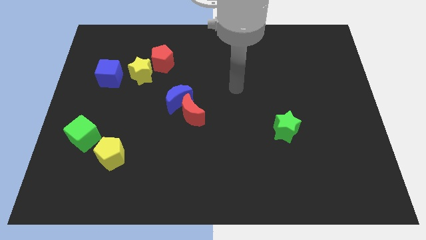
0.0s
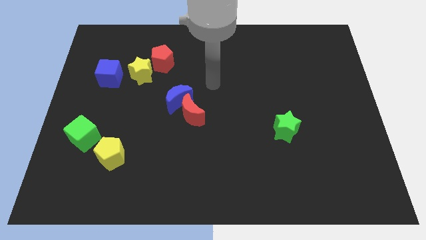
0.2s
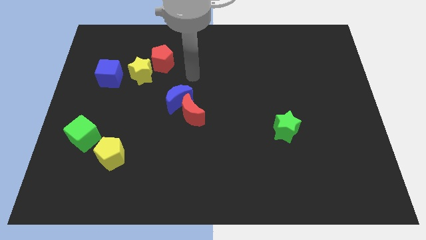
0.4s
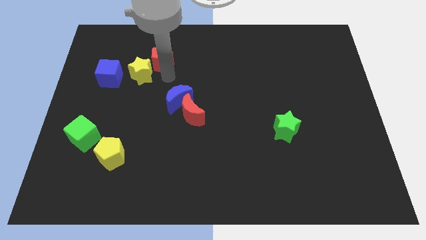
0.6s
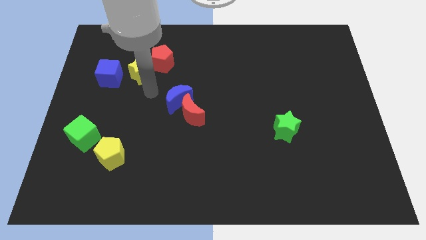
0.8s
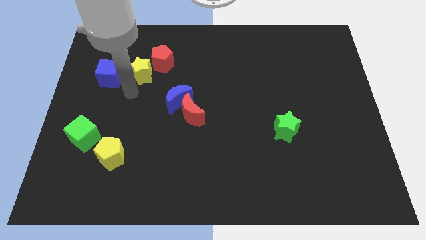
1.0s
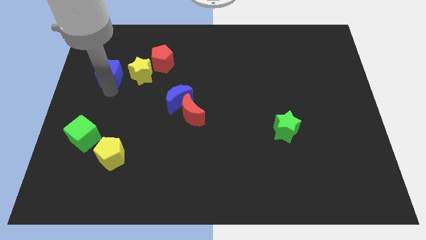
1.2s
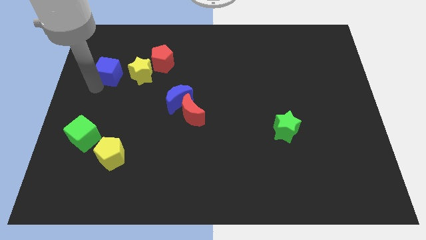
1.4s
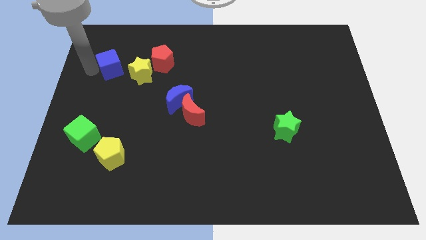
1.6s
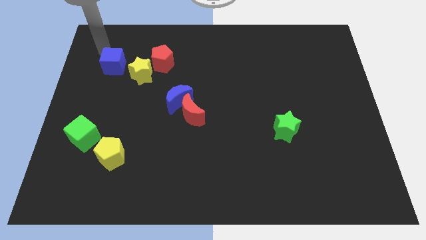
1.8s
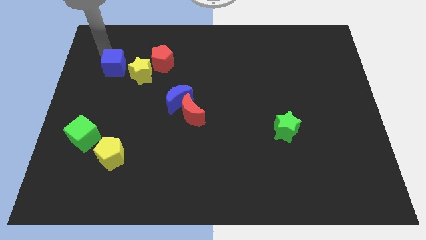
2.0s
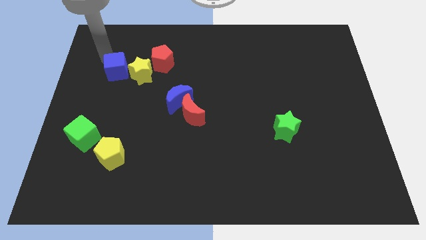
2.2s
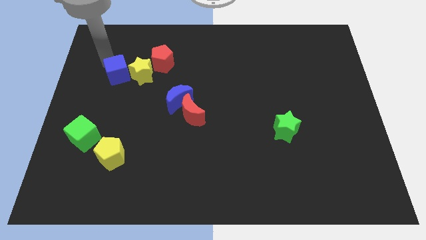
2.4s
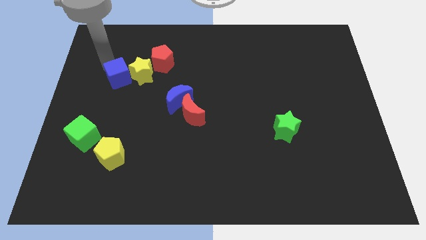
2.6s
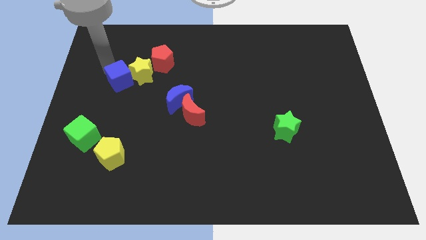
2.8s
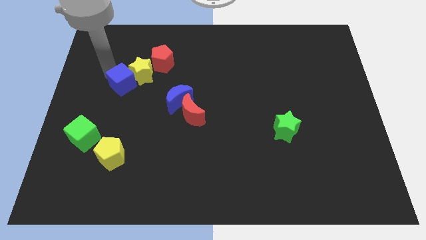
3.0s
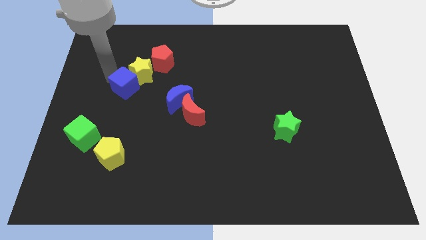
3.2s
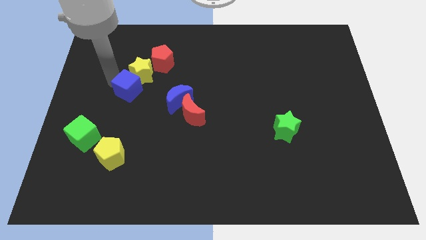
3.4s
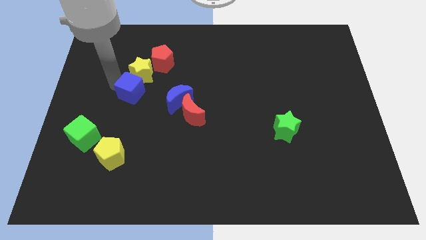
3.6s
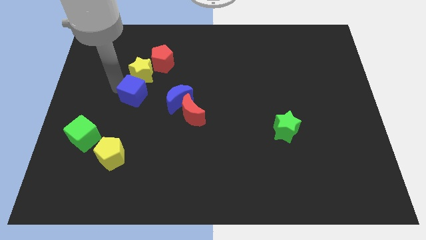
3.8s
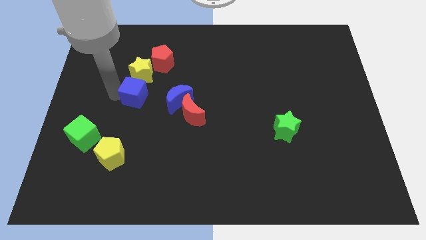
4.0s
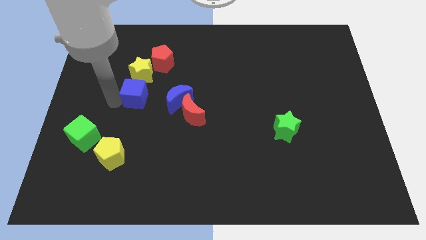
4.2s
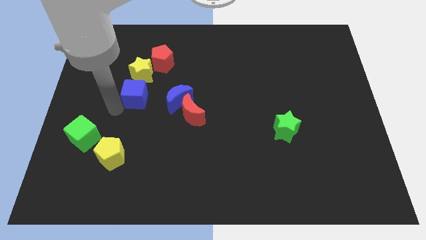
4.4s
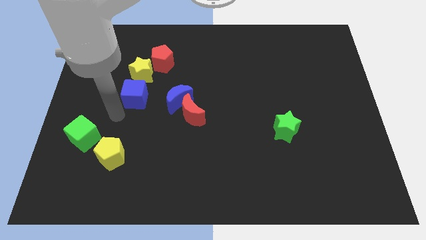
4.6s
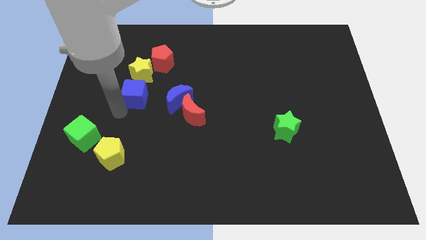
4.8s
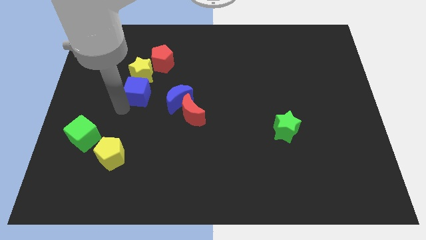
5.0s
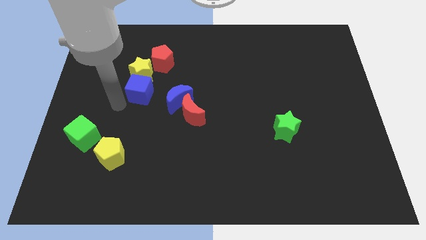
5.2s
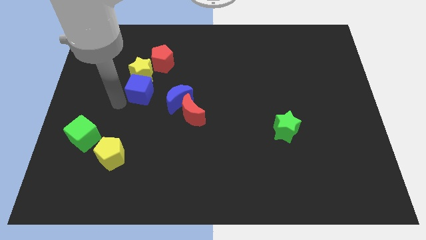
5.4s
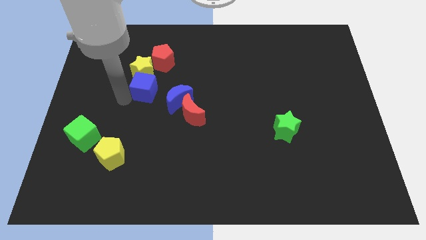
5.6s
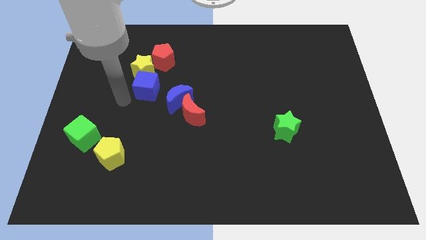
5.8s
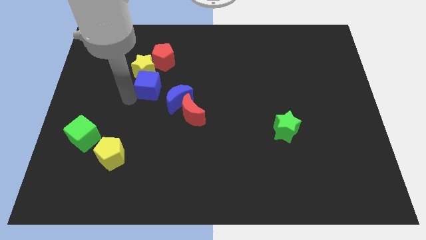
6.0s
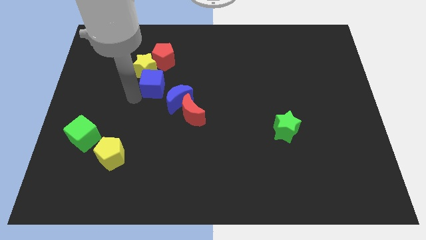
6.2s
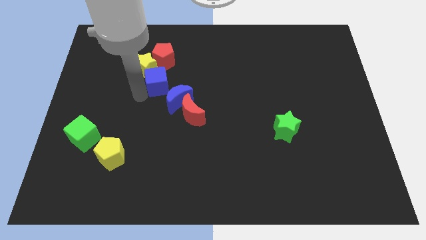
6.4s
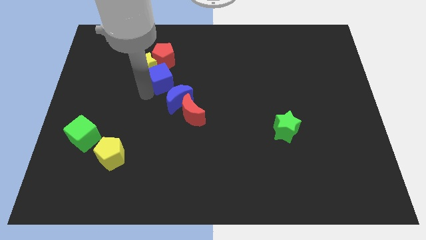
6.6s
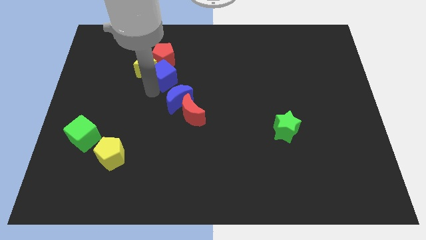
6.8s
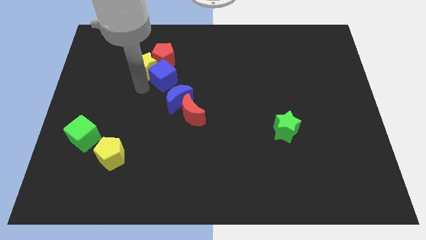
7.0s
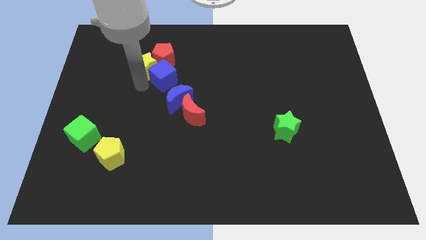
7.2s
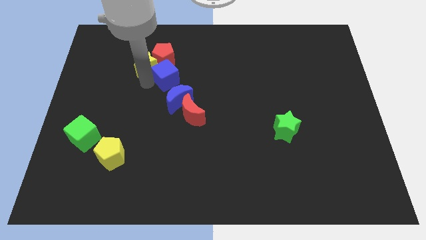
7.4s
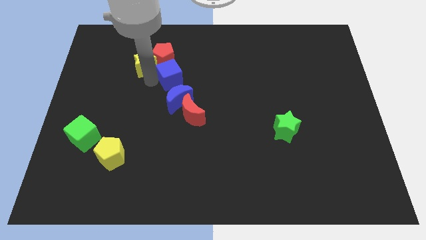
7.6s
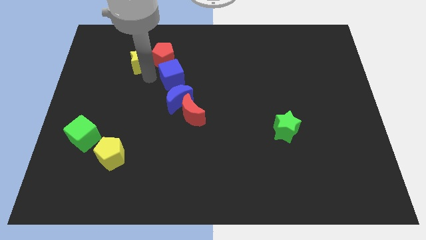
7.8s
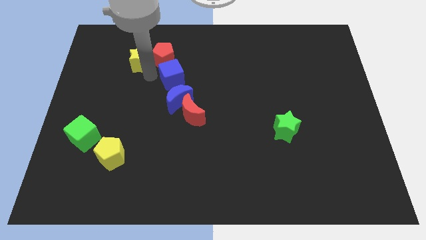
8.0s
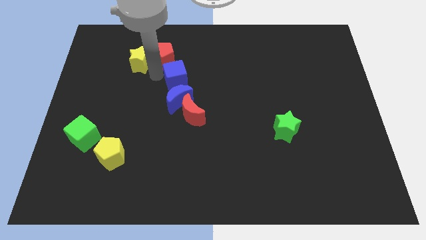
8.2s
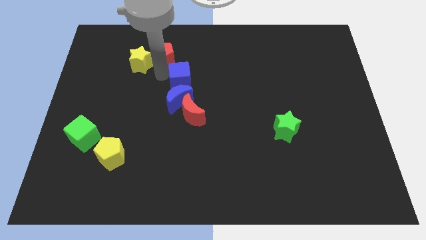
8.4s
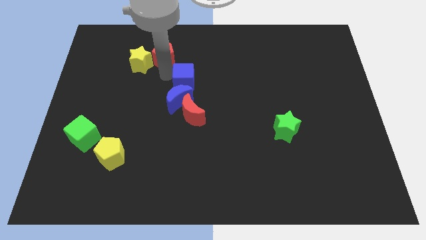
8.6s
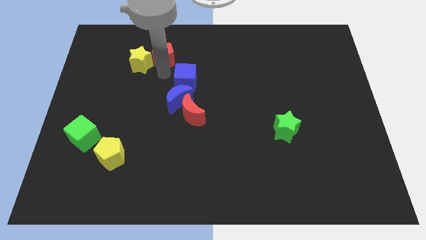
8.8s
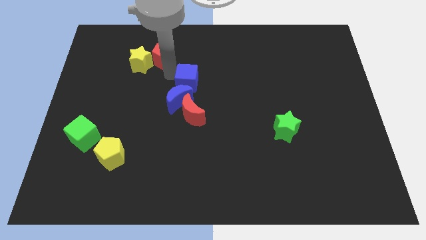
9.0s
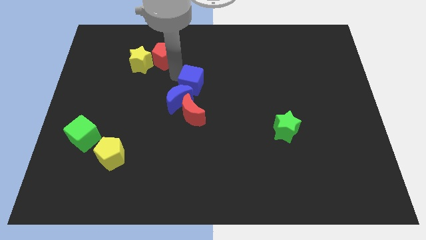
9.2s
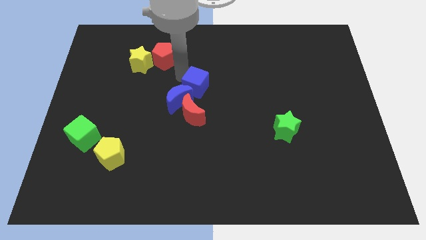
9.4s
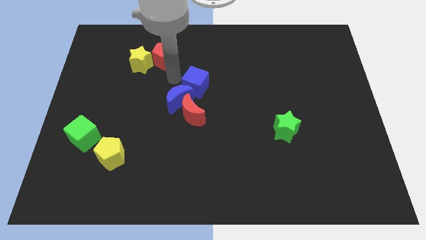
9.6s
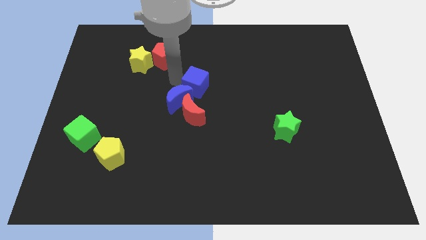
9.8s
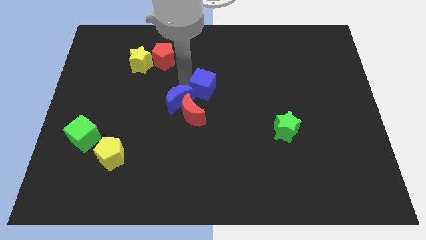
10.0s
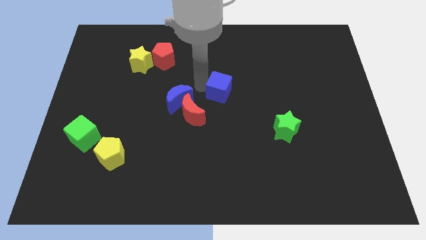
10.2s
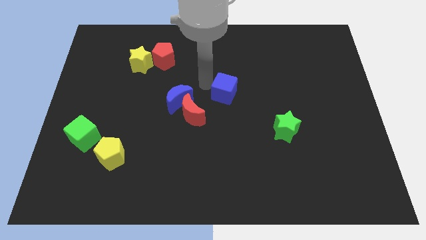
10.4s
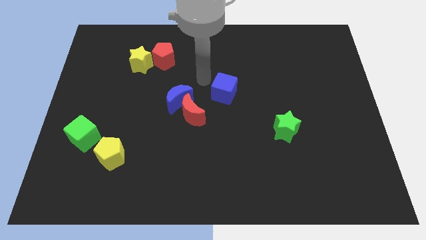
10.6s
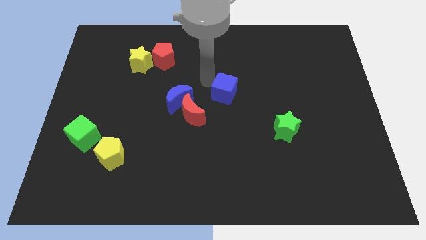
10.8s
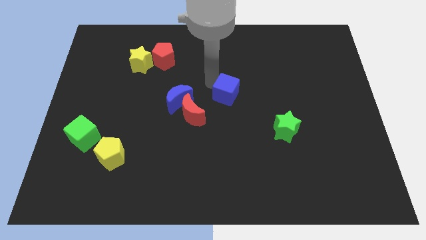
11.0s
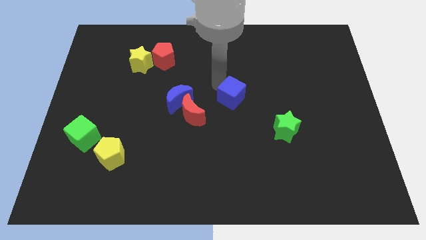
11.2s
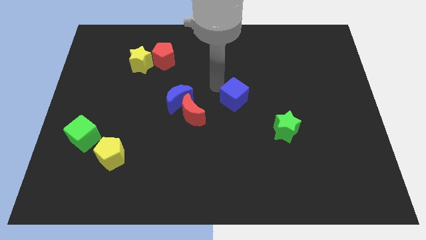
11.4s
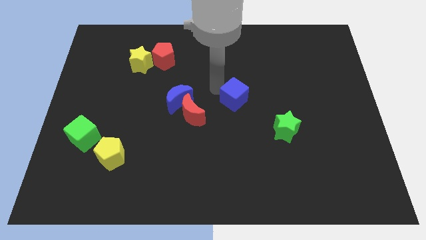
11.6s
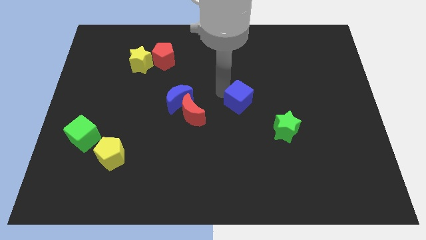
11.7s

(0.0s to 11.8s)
put the blue cube to the top left of the green star

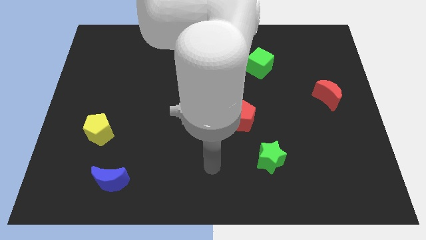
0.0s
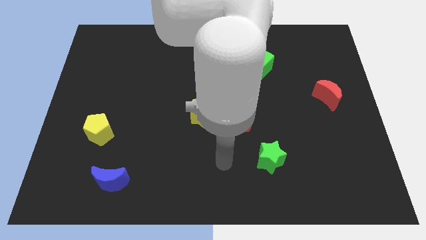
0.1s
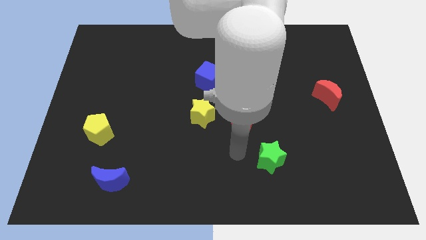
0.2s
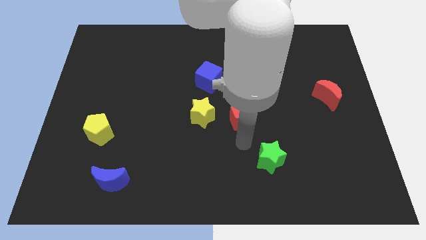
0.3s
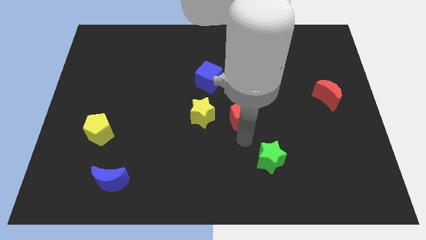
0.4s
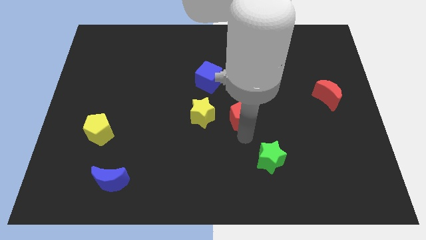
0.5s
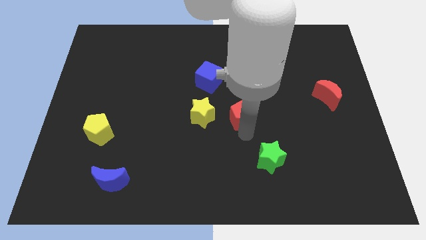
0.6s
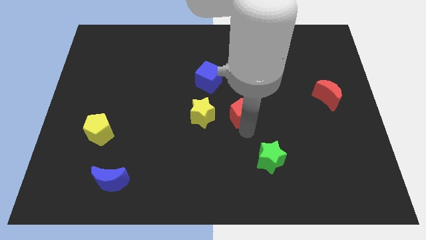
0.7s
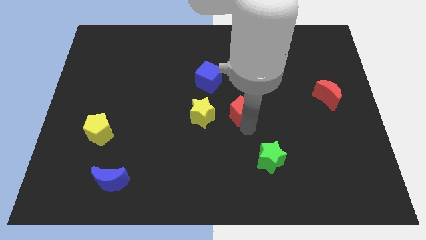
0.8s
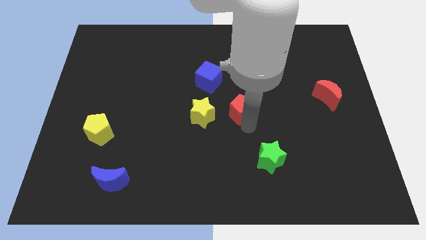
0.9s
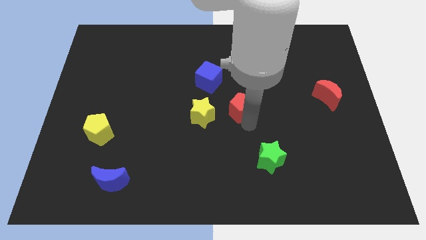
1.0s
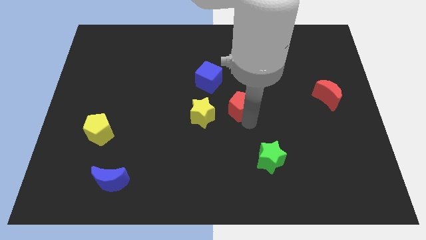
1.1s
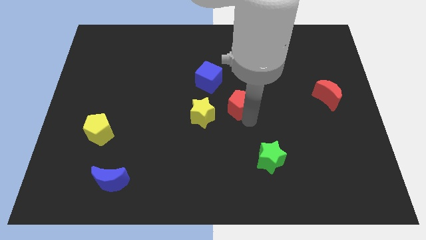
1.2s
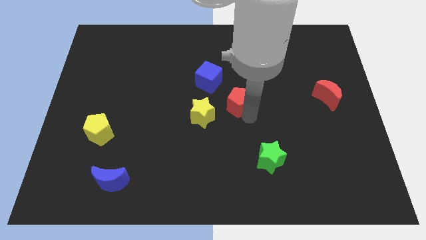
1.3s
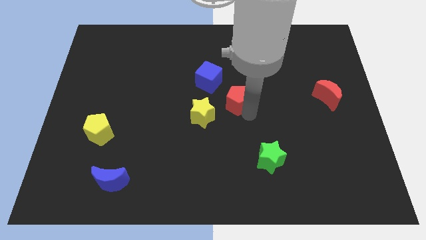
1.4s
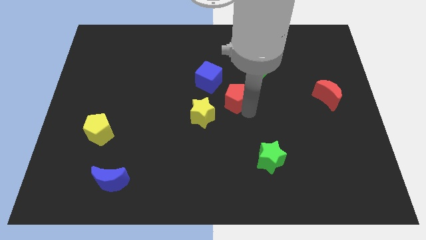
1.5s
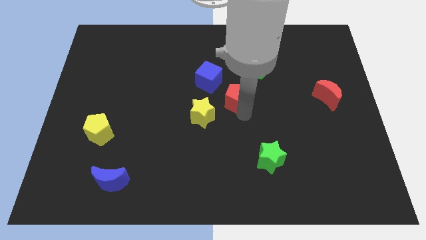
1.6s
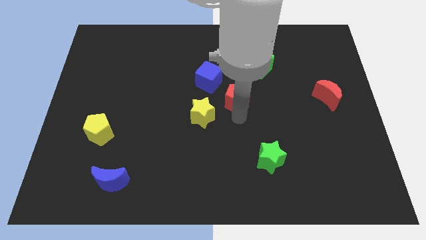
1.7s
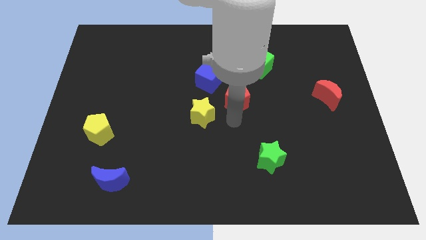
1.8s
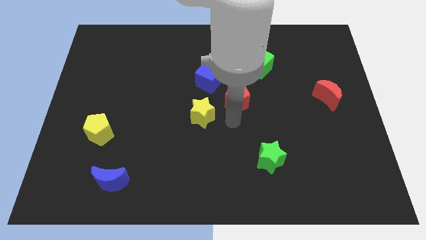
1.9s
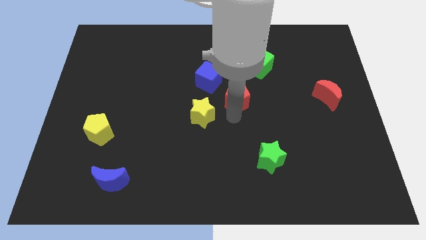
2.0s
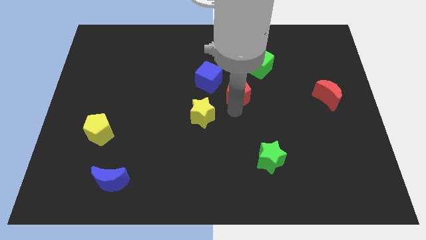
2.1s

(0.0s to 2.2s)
slide the red pentagon to the bottom left side of the green cube
